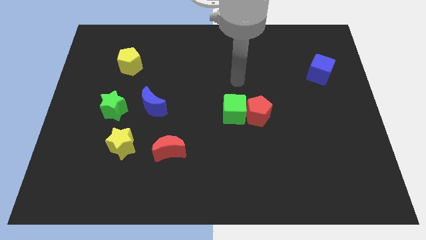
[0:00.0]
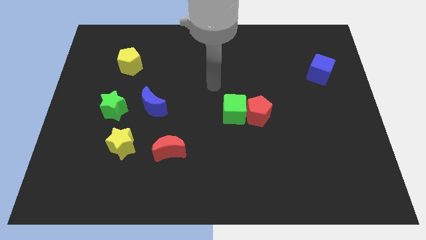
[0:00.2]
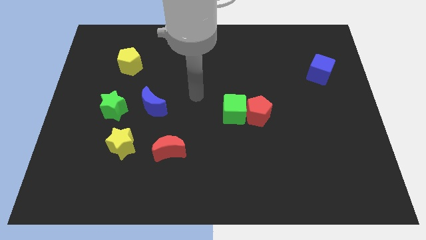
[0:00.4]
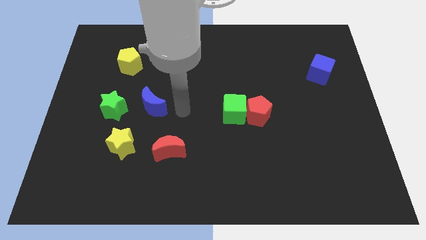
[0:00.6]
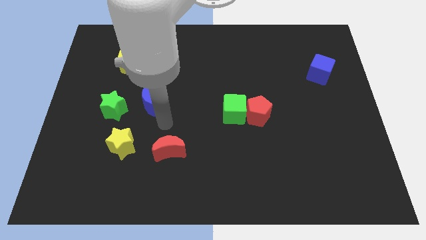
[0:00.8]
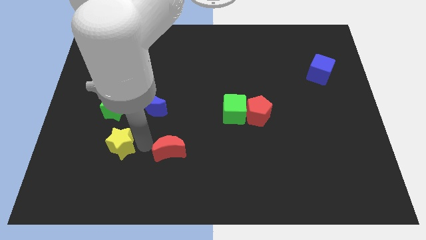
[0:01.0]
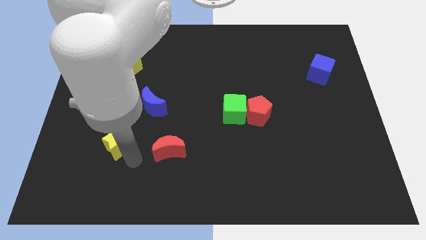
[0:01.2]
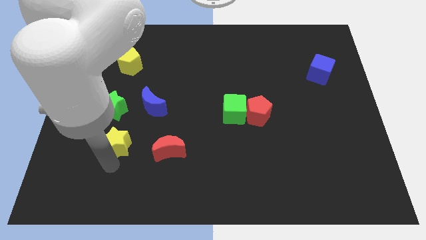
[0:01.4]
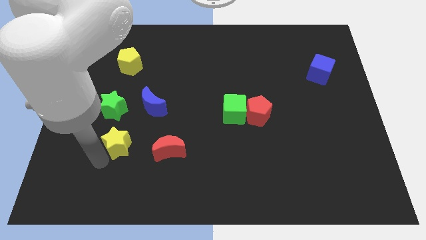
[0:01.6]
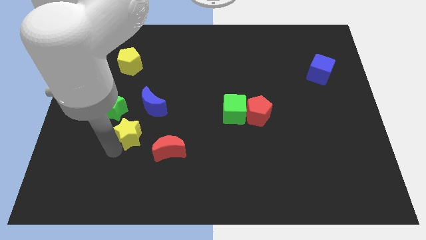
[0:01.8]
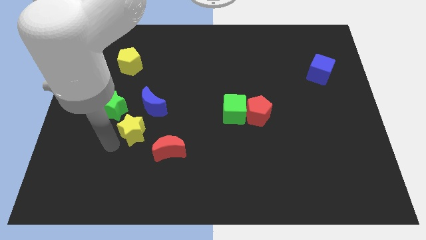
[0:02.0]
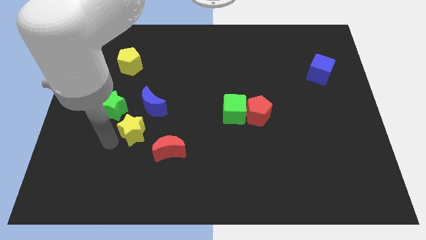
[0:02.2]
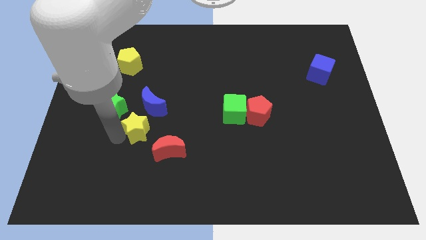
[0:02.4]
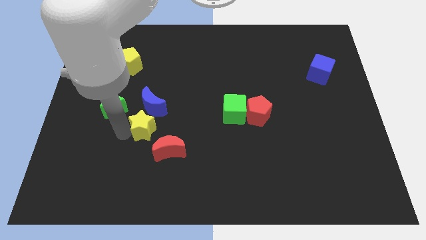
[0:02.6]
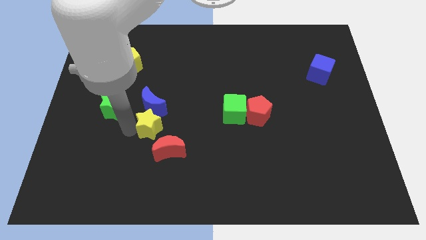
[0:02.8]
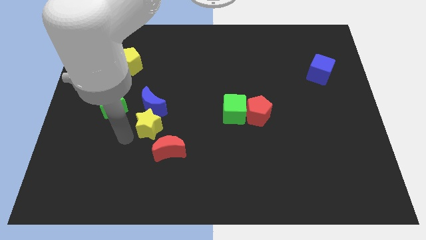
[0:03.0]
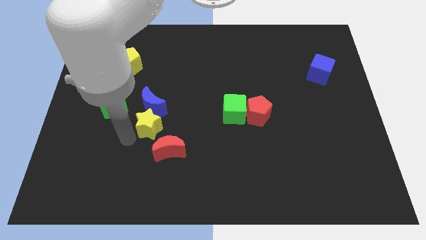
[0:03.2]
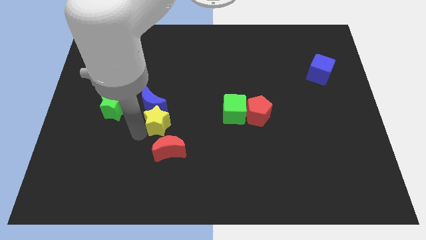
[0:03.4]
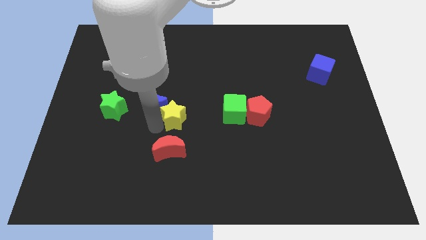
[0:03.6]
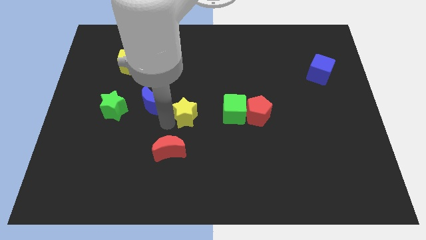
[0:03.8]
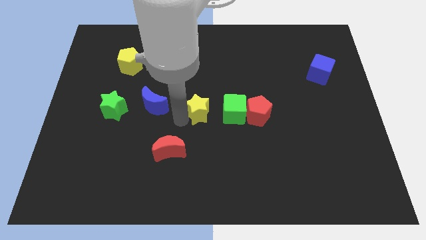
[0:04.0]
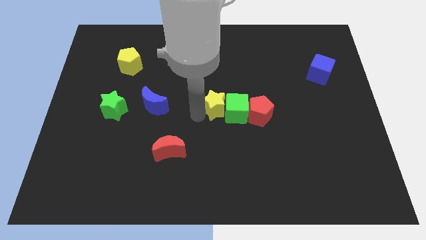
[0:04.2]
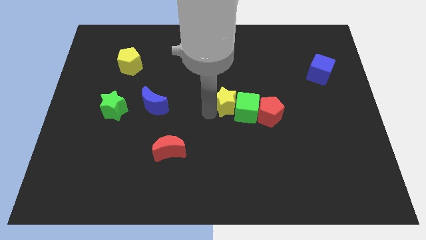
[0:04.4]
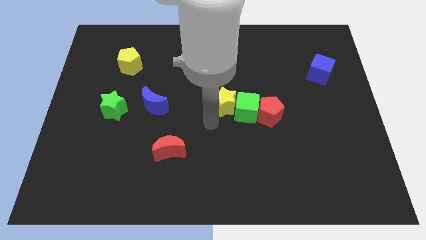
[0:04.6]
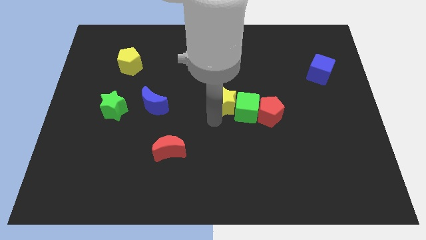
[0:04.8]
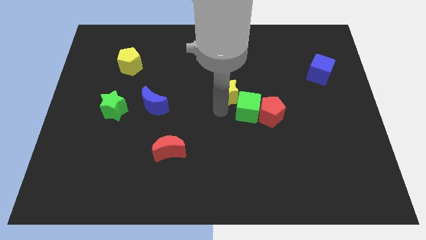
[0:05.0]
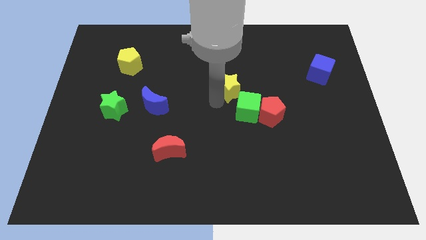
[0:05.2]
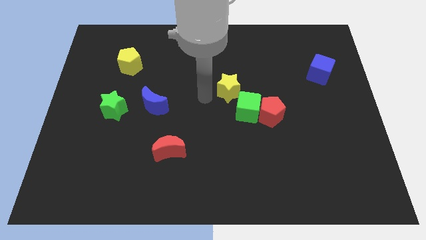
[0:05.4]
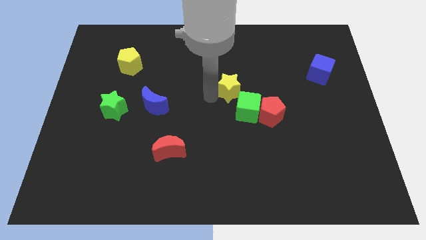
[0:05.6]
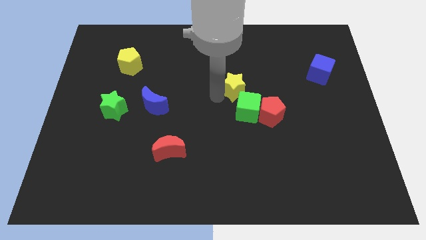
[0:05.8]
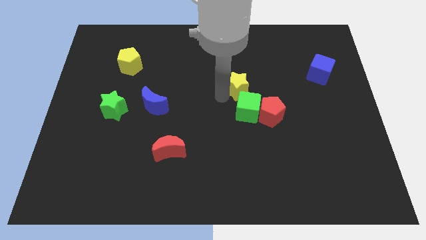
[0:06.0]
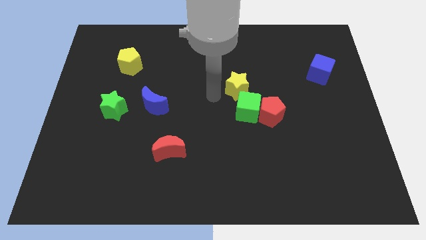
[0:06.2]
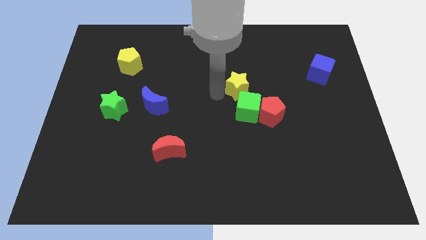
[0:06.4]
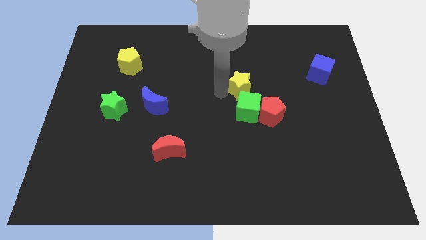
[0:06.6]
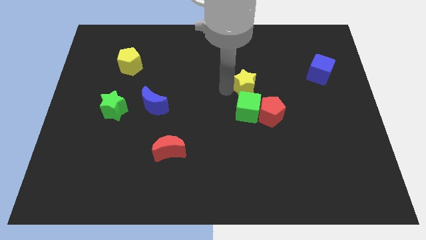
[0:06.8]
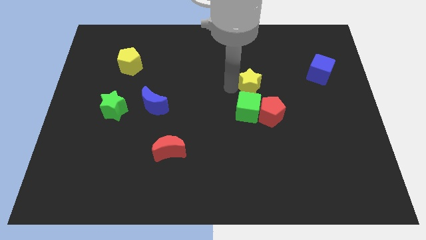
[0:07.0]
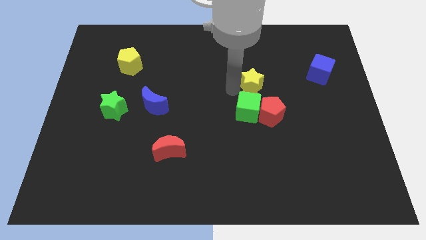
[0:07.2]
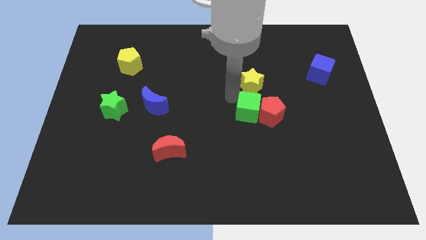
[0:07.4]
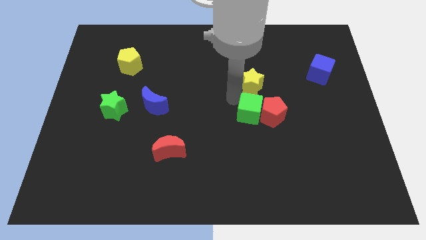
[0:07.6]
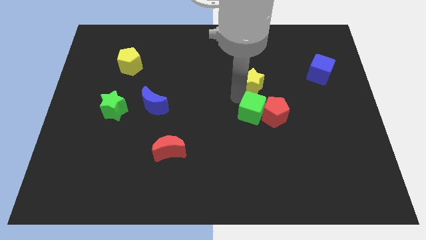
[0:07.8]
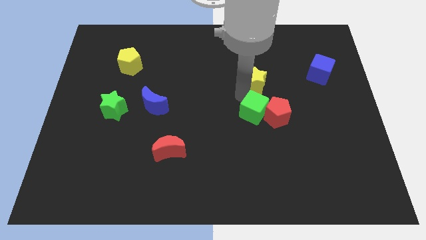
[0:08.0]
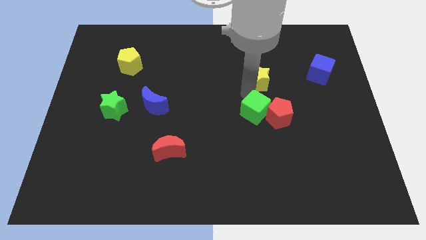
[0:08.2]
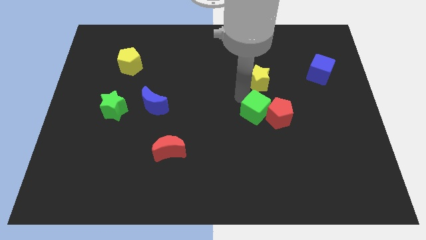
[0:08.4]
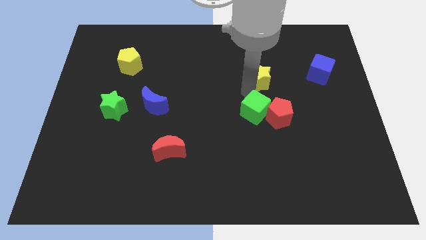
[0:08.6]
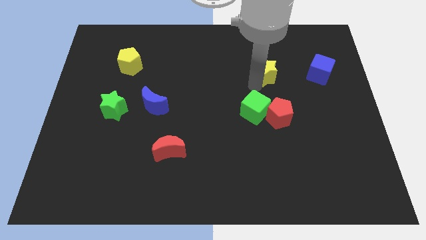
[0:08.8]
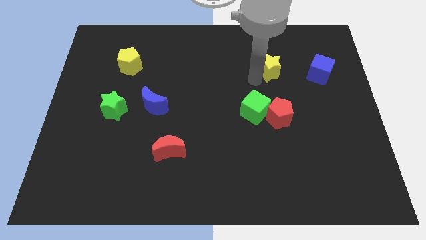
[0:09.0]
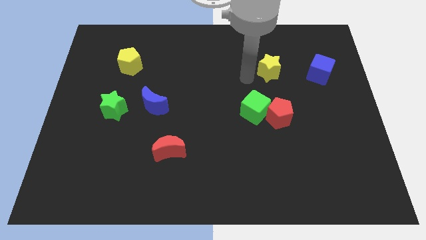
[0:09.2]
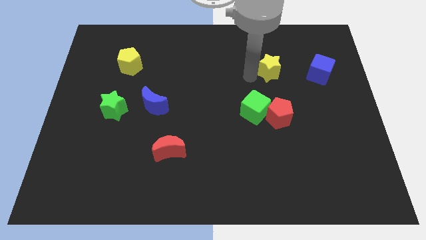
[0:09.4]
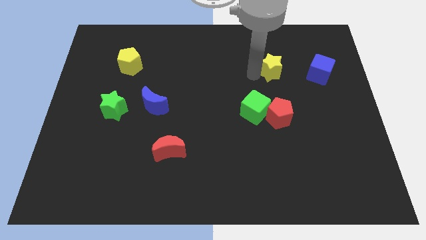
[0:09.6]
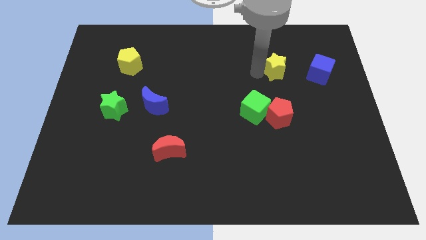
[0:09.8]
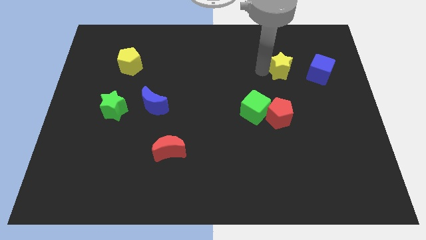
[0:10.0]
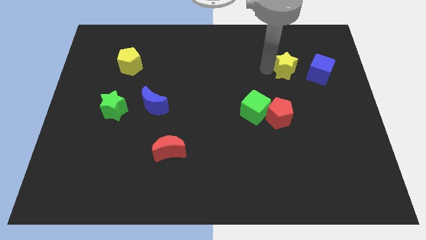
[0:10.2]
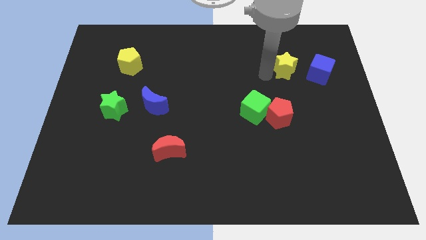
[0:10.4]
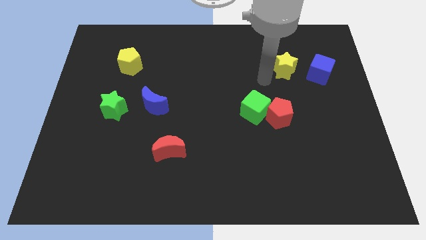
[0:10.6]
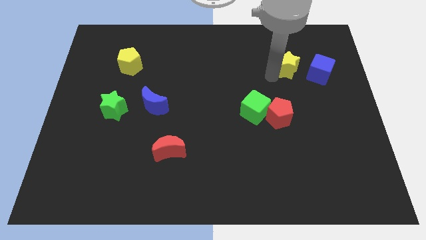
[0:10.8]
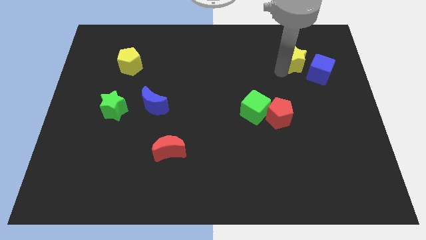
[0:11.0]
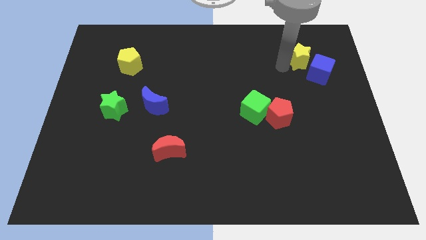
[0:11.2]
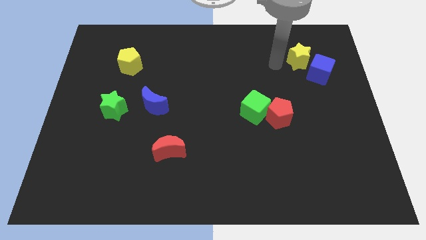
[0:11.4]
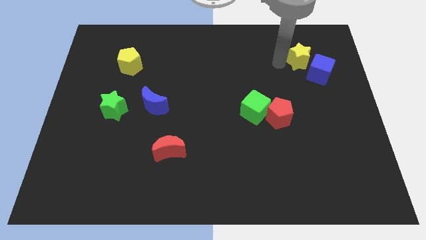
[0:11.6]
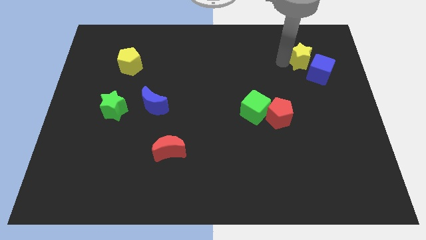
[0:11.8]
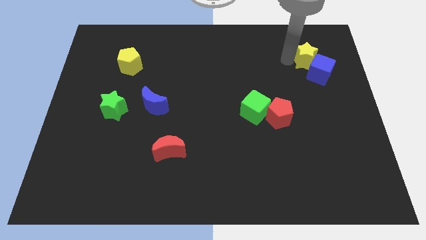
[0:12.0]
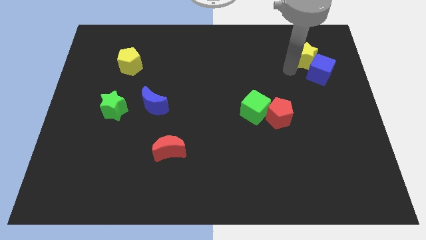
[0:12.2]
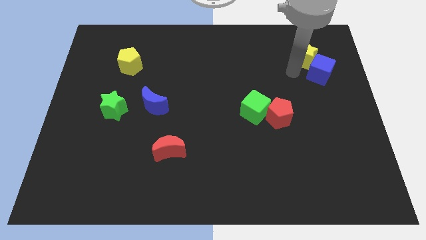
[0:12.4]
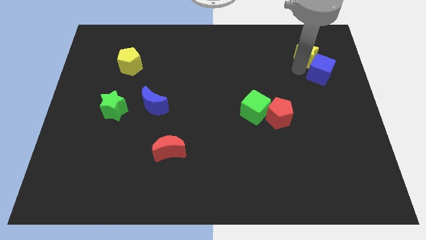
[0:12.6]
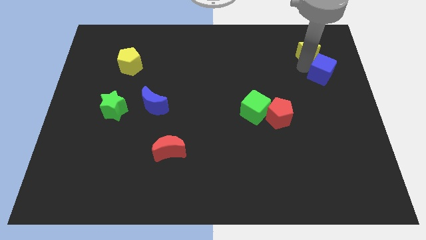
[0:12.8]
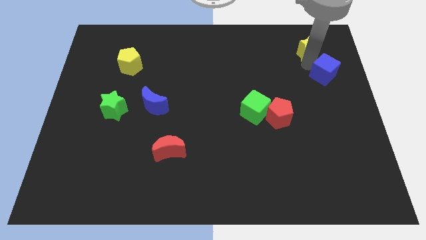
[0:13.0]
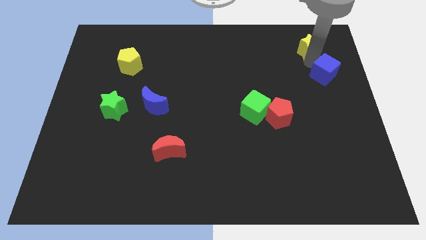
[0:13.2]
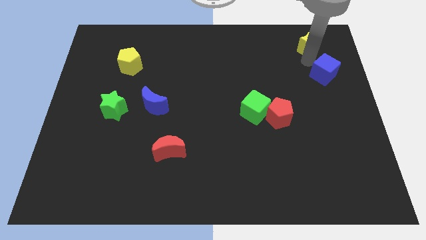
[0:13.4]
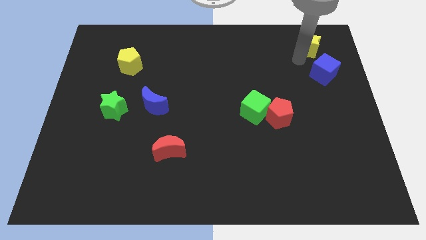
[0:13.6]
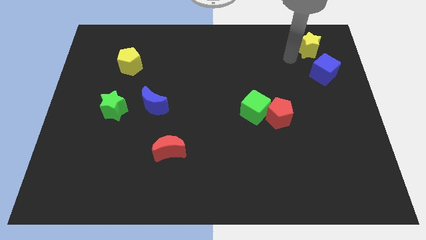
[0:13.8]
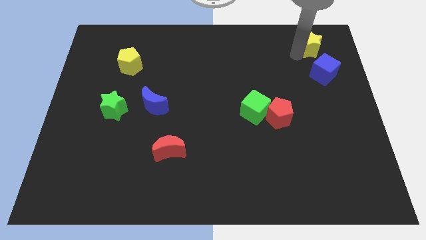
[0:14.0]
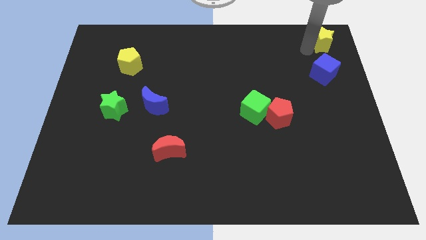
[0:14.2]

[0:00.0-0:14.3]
move the yellow star to the upper right corner
